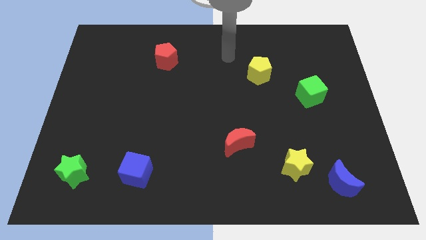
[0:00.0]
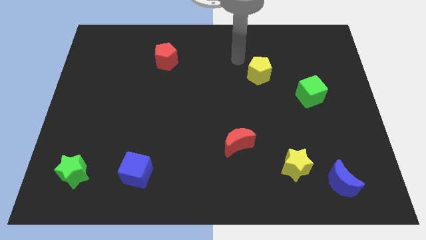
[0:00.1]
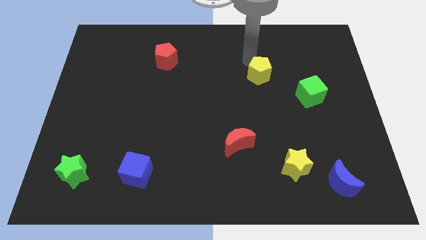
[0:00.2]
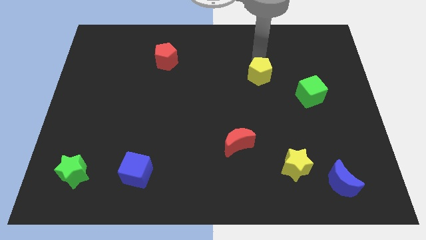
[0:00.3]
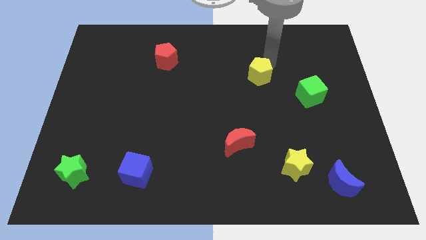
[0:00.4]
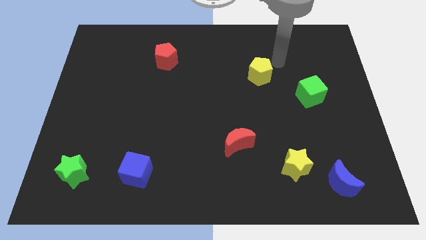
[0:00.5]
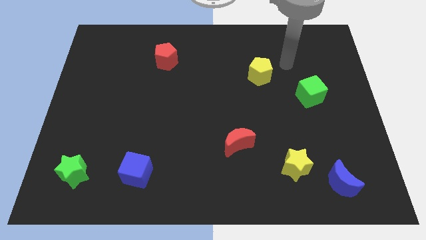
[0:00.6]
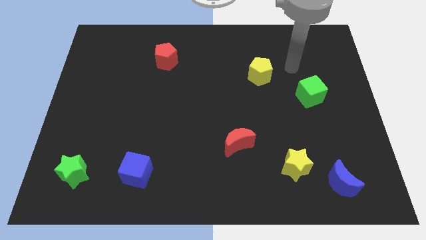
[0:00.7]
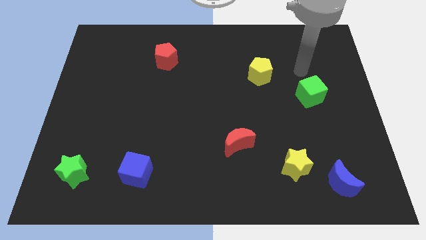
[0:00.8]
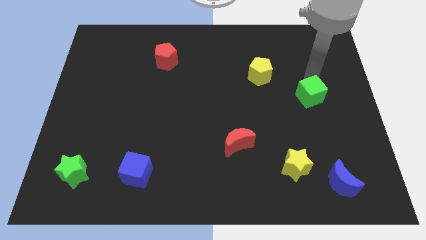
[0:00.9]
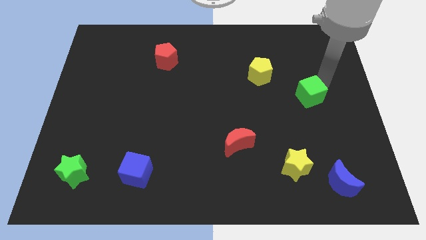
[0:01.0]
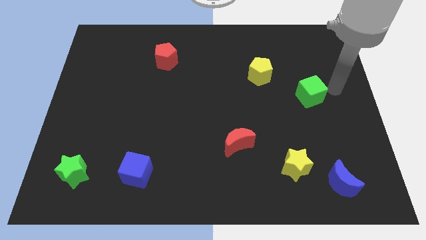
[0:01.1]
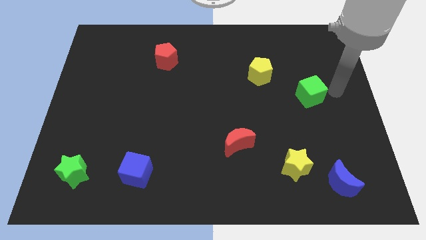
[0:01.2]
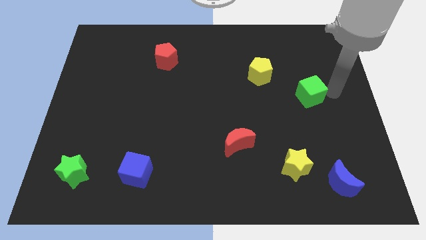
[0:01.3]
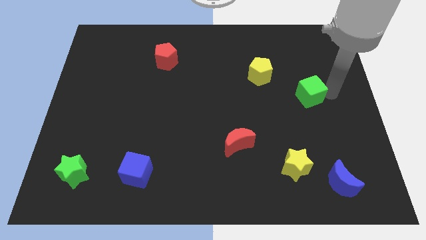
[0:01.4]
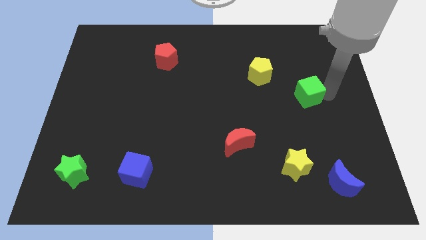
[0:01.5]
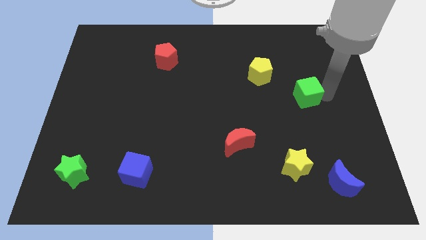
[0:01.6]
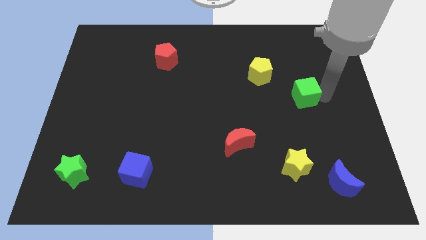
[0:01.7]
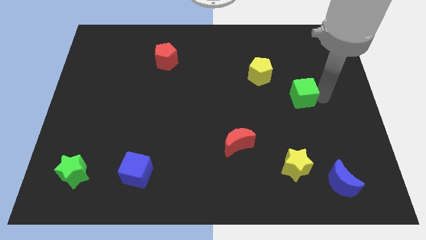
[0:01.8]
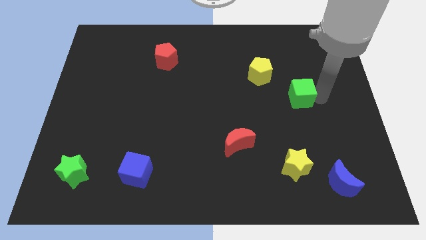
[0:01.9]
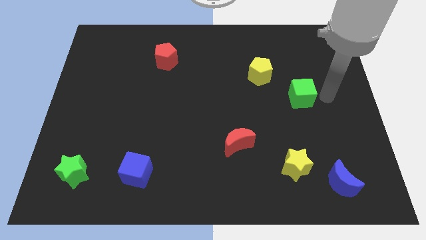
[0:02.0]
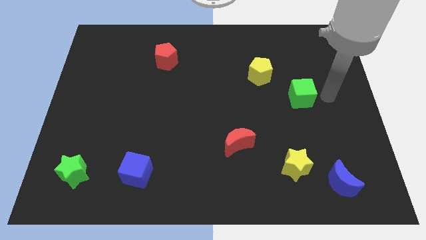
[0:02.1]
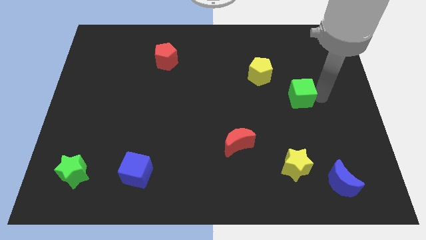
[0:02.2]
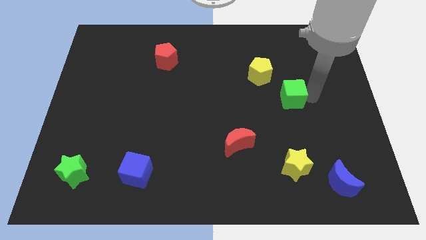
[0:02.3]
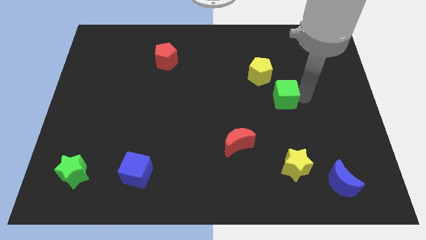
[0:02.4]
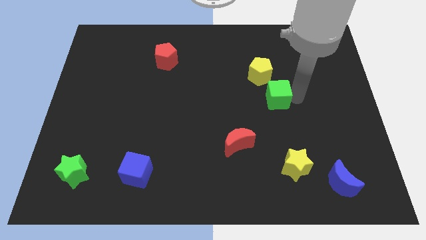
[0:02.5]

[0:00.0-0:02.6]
slide the green cube a little bit left

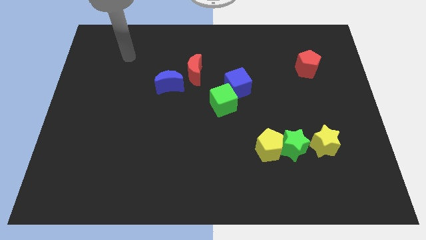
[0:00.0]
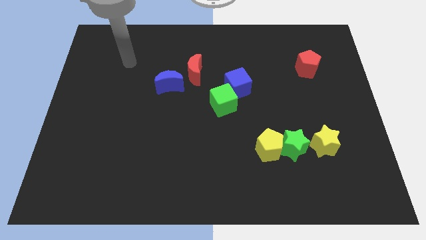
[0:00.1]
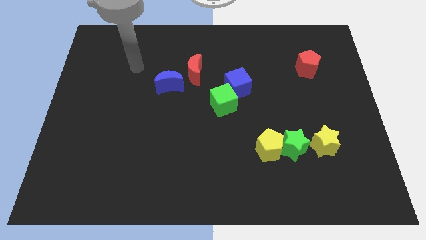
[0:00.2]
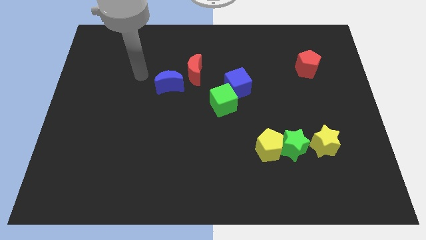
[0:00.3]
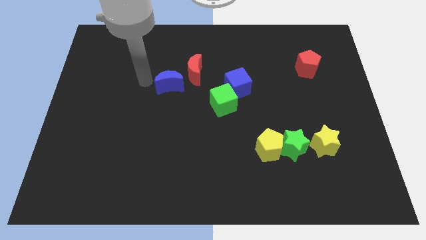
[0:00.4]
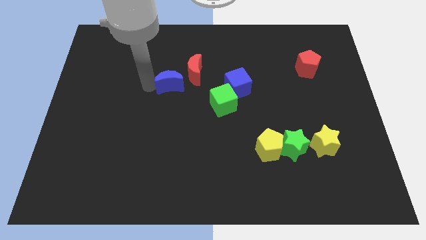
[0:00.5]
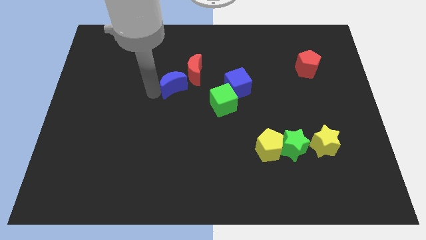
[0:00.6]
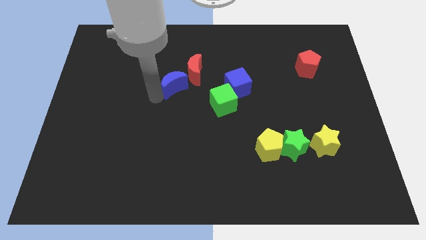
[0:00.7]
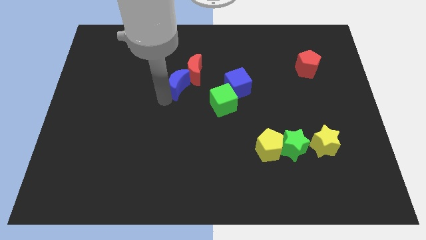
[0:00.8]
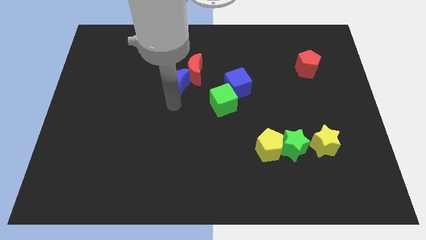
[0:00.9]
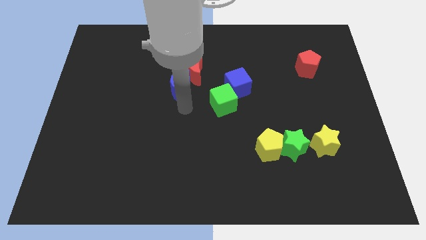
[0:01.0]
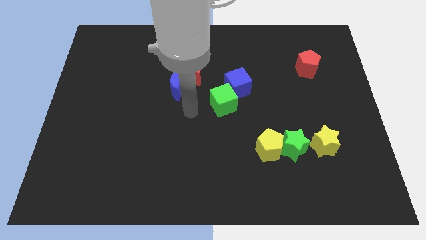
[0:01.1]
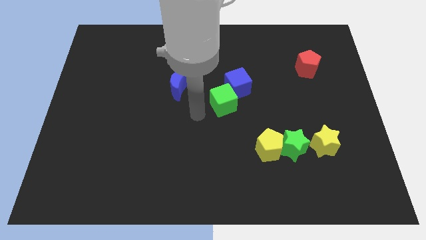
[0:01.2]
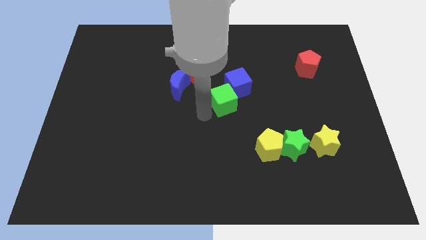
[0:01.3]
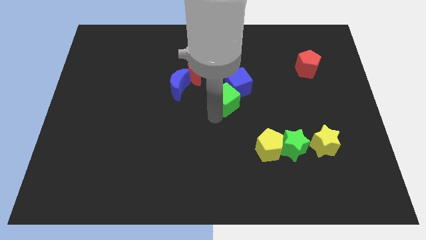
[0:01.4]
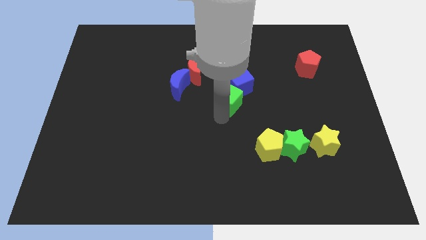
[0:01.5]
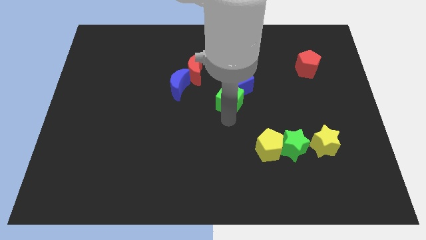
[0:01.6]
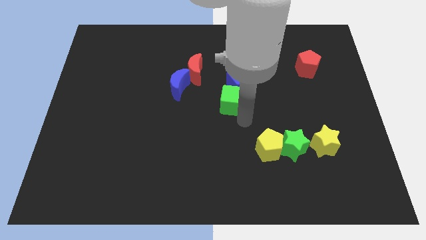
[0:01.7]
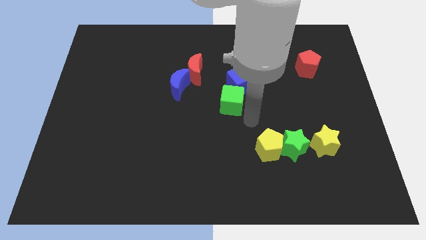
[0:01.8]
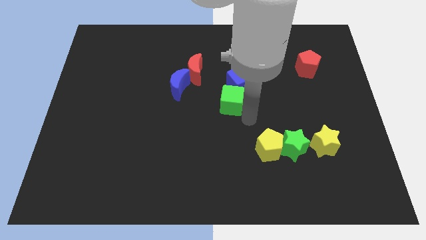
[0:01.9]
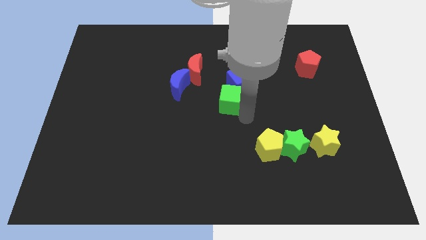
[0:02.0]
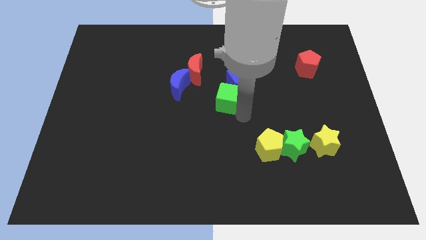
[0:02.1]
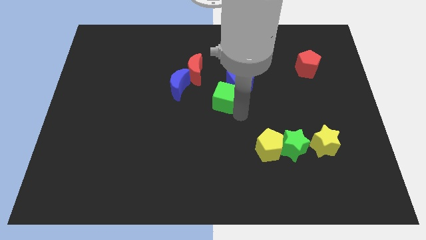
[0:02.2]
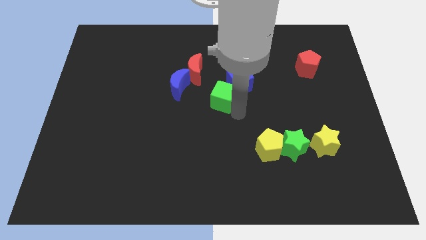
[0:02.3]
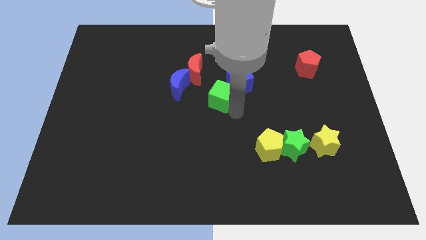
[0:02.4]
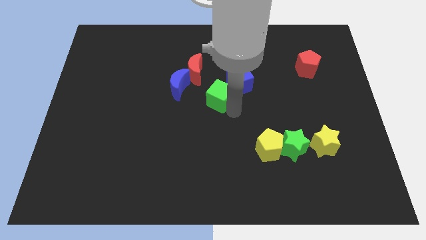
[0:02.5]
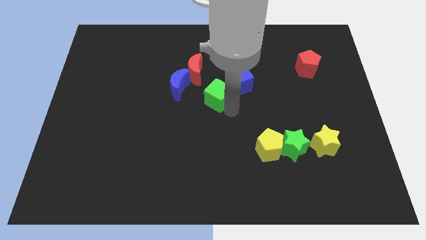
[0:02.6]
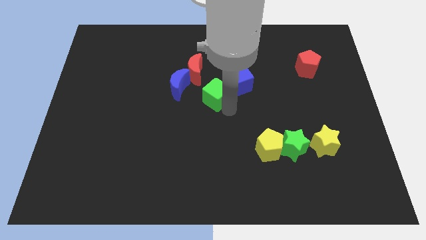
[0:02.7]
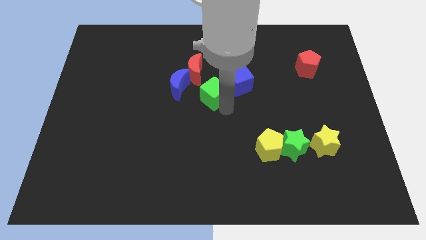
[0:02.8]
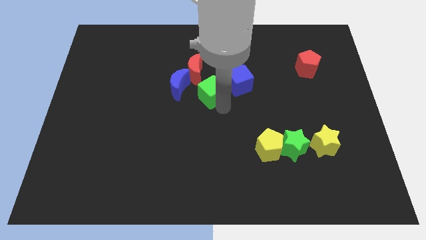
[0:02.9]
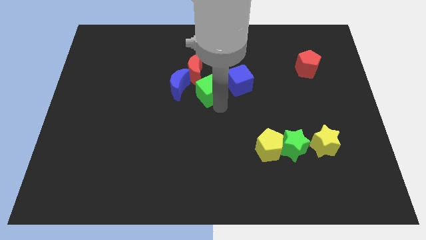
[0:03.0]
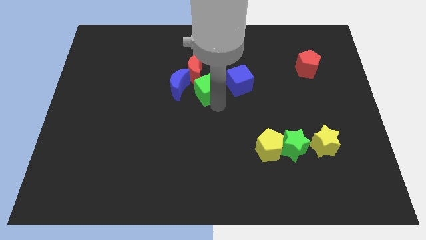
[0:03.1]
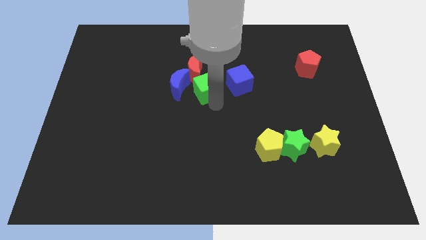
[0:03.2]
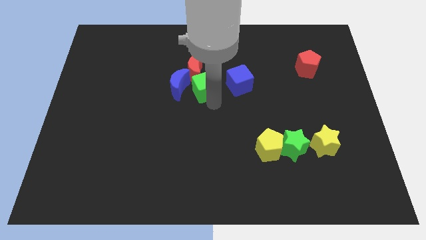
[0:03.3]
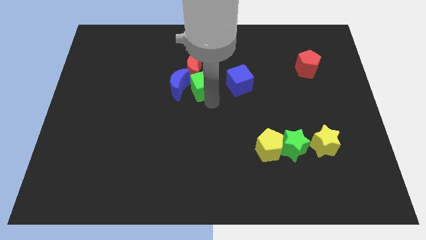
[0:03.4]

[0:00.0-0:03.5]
slide the green cube upwards and to the left diagonally a bit

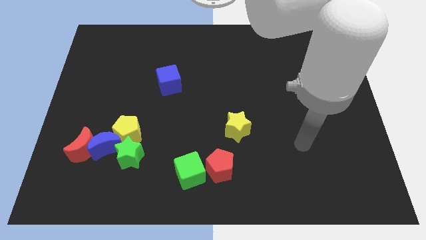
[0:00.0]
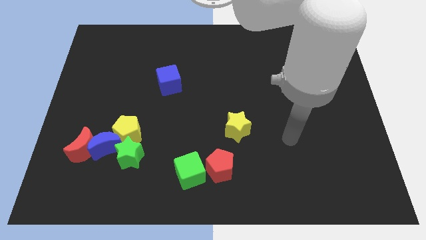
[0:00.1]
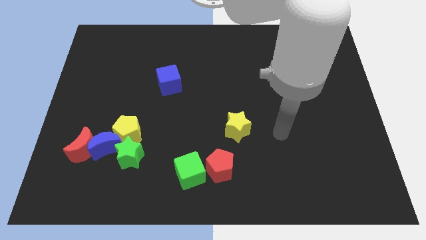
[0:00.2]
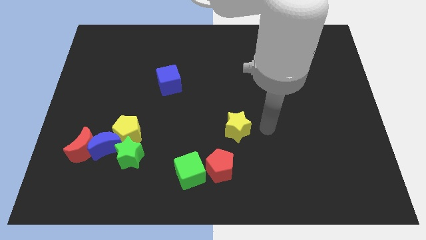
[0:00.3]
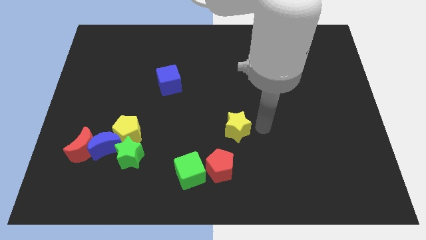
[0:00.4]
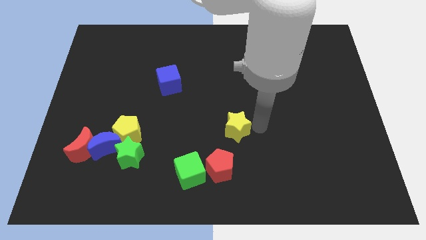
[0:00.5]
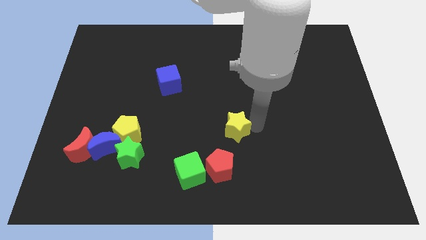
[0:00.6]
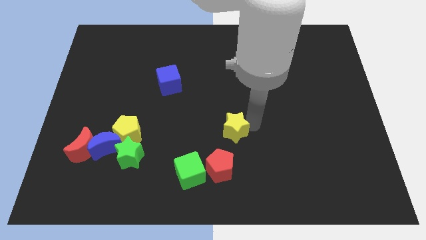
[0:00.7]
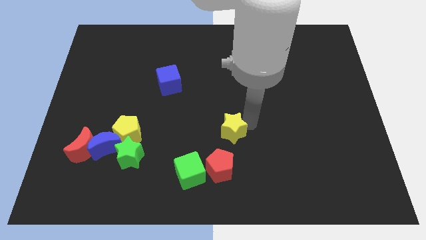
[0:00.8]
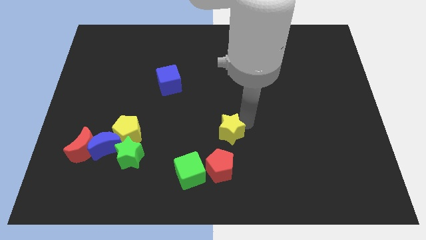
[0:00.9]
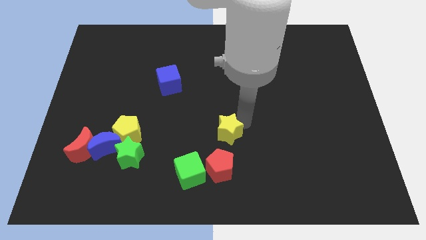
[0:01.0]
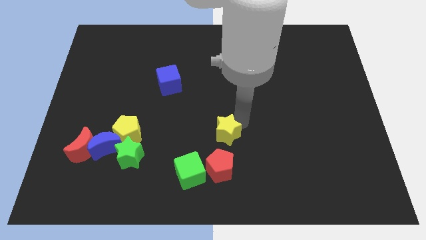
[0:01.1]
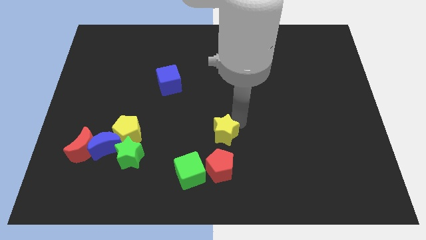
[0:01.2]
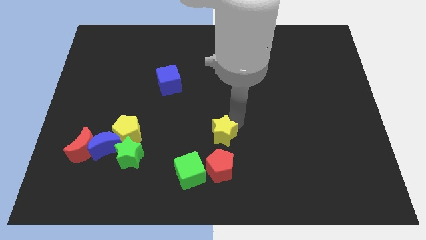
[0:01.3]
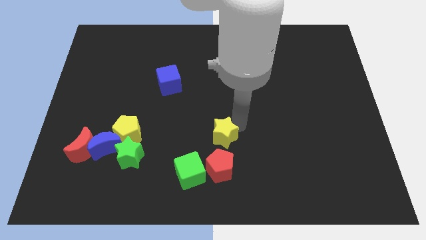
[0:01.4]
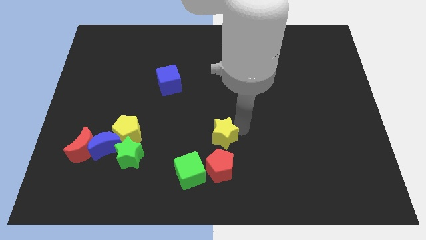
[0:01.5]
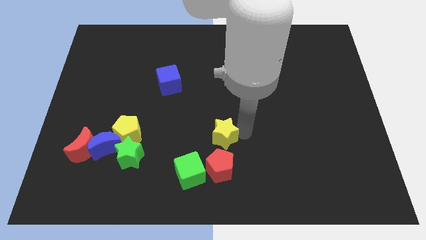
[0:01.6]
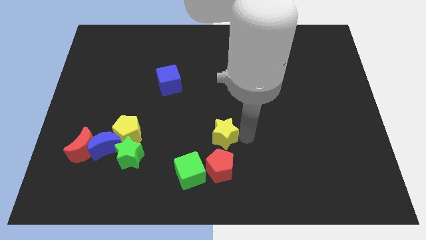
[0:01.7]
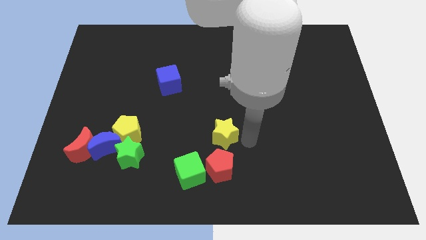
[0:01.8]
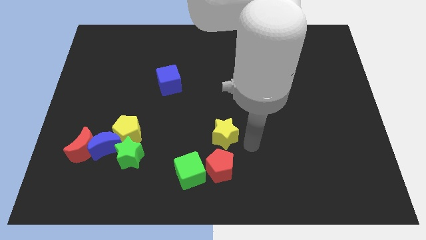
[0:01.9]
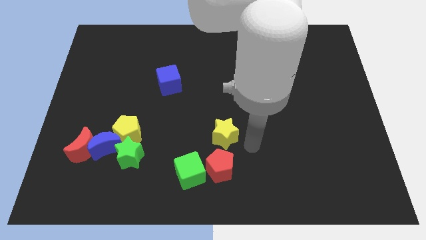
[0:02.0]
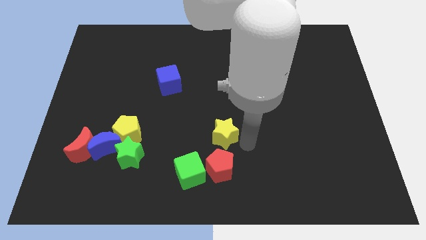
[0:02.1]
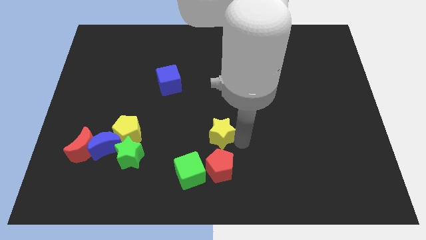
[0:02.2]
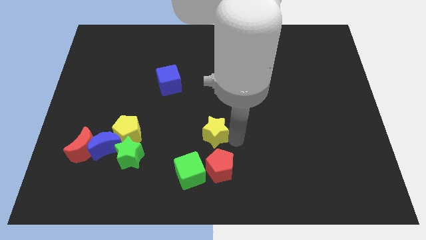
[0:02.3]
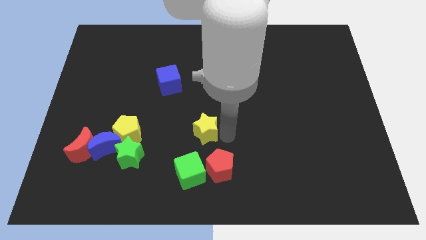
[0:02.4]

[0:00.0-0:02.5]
slightly move the yellow star left
